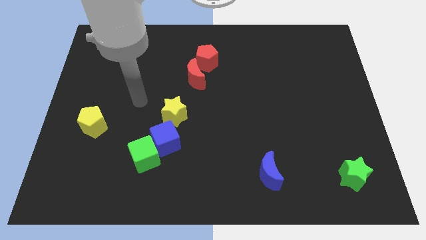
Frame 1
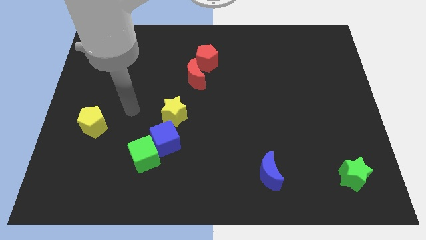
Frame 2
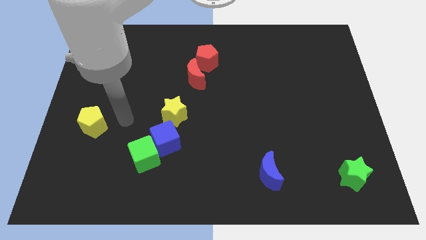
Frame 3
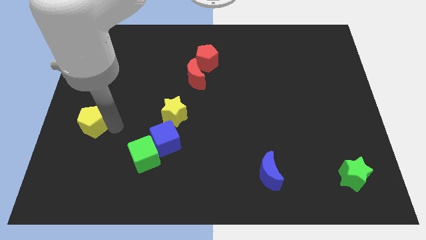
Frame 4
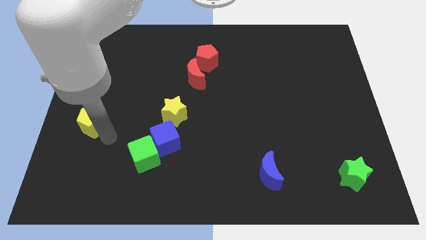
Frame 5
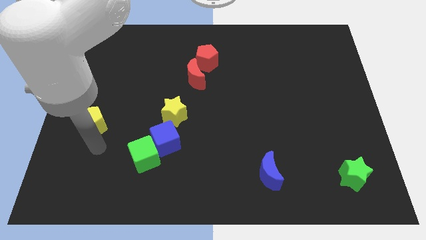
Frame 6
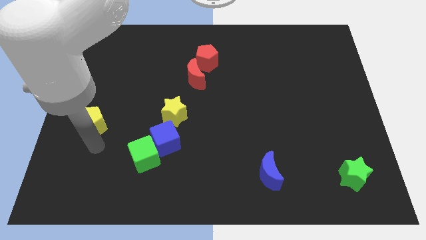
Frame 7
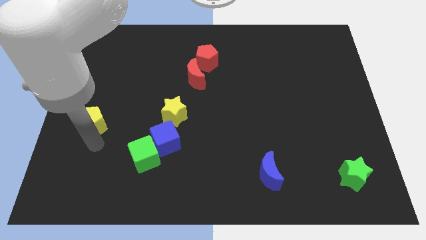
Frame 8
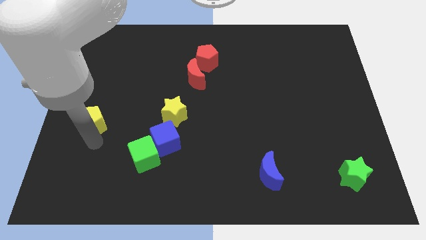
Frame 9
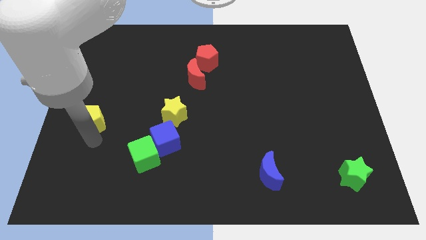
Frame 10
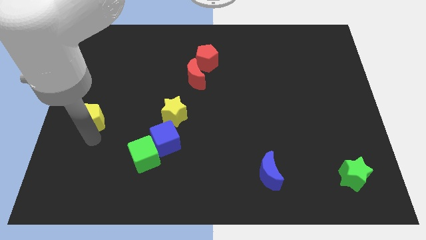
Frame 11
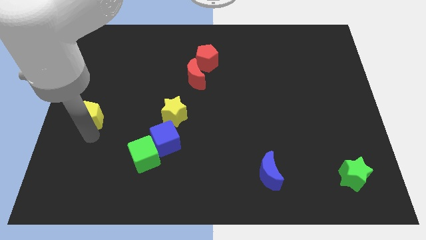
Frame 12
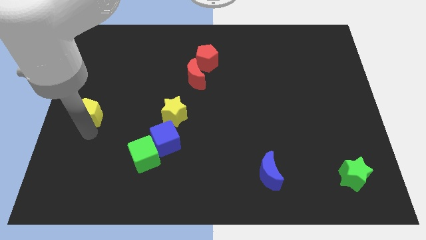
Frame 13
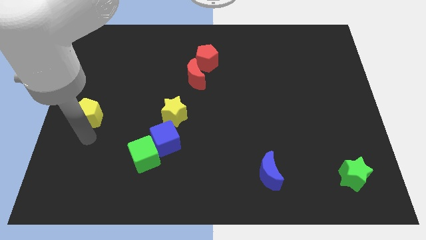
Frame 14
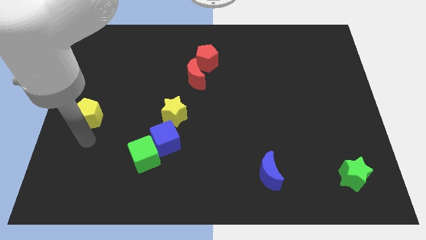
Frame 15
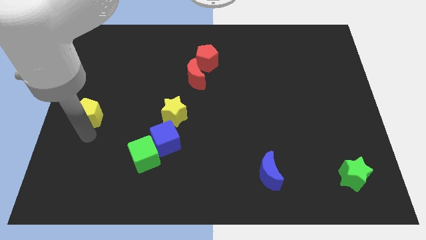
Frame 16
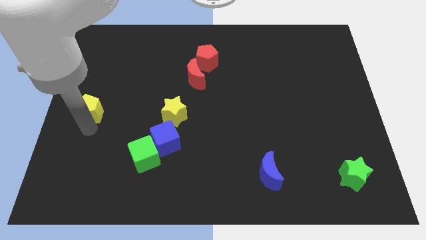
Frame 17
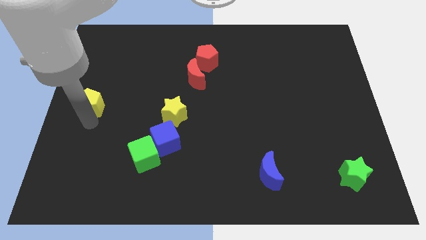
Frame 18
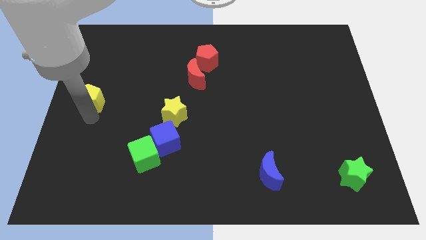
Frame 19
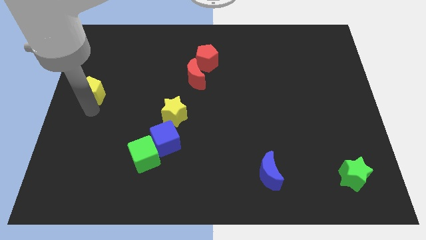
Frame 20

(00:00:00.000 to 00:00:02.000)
slide the yellow pentagon slightly up

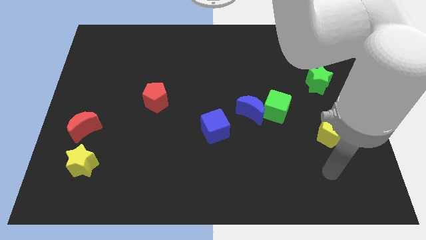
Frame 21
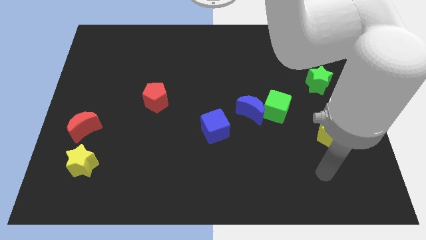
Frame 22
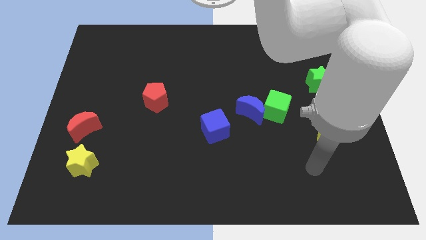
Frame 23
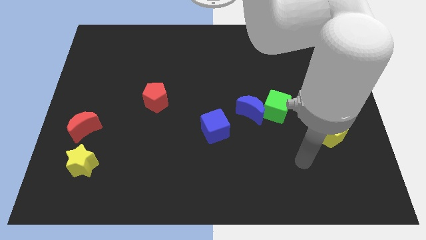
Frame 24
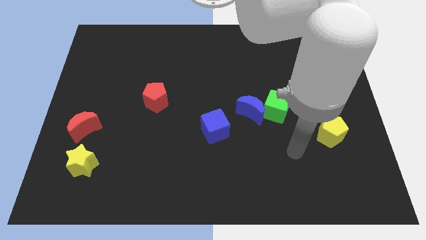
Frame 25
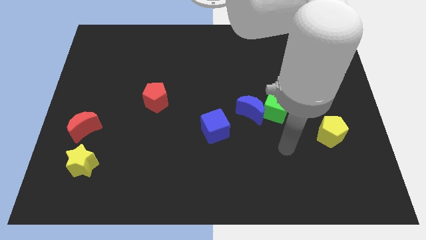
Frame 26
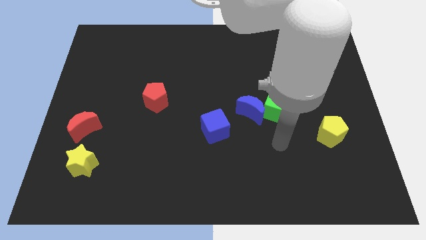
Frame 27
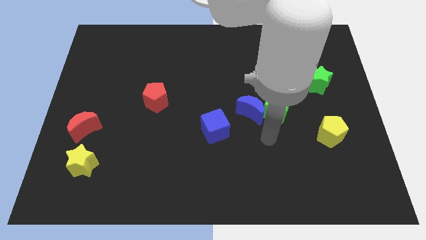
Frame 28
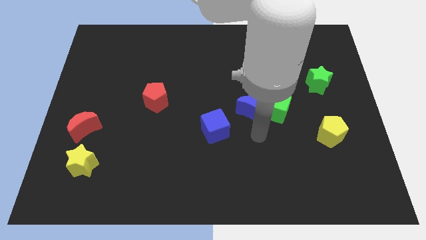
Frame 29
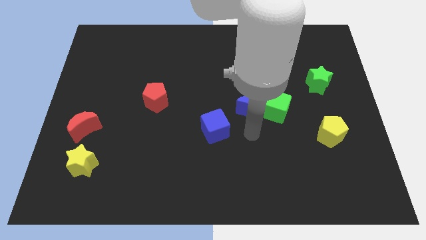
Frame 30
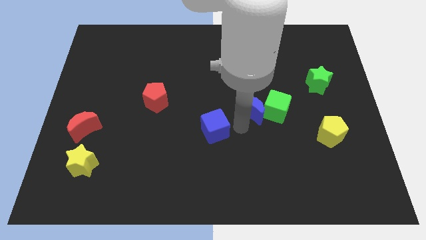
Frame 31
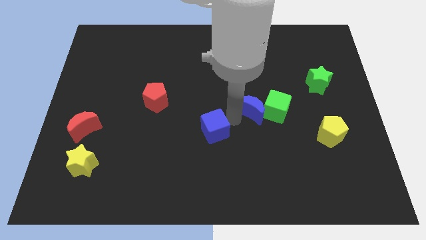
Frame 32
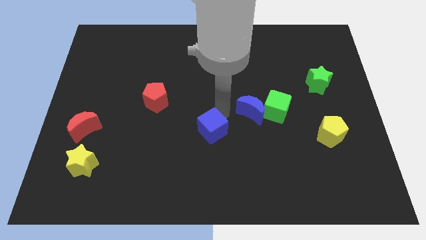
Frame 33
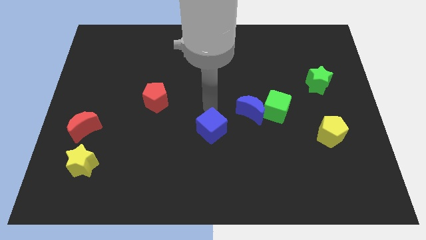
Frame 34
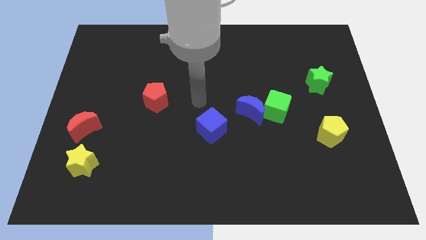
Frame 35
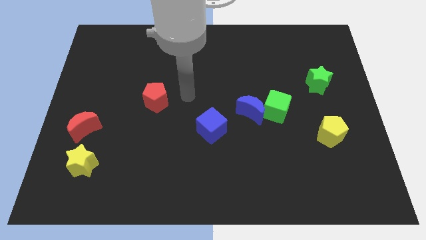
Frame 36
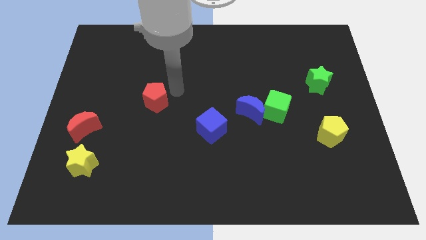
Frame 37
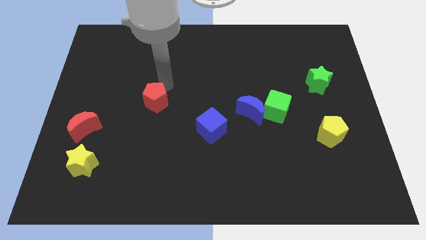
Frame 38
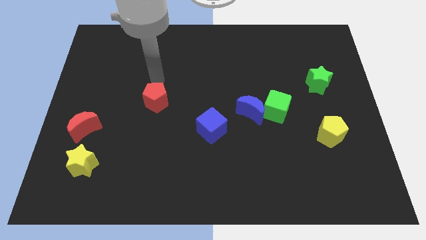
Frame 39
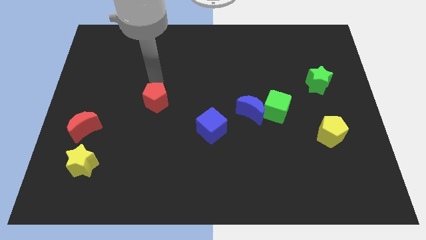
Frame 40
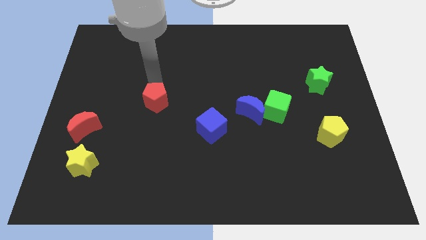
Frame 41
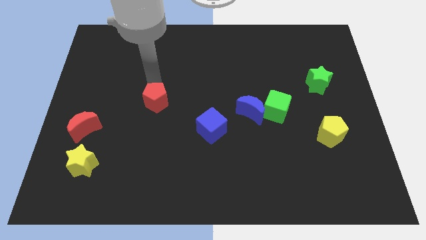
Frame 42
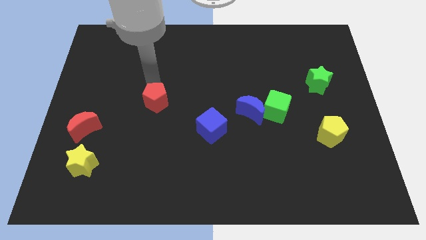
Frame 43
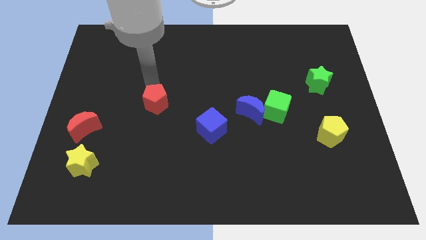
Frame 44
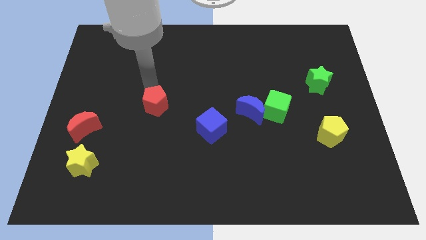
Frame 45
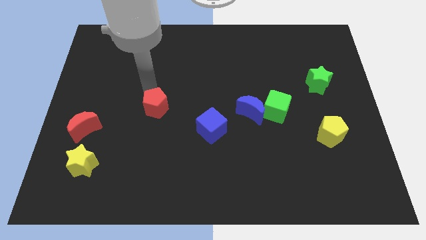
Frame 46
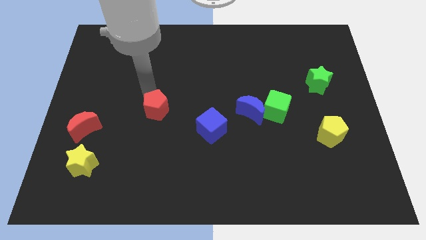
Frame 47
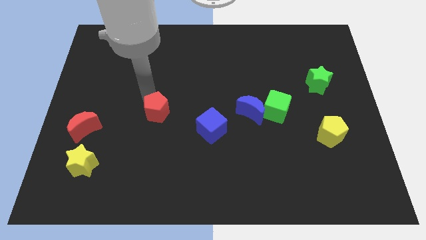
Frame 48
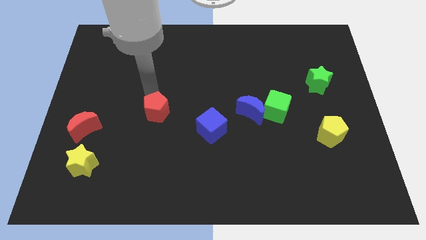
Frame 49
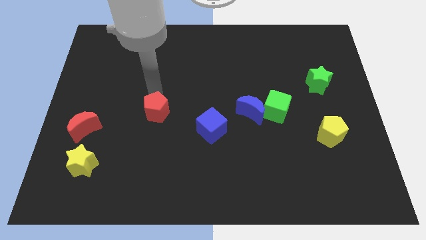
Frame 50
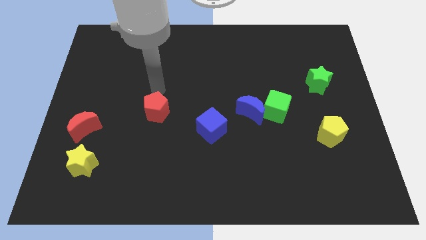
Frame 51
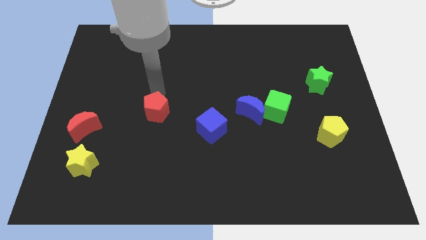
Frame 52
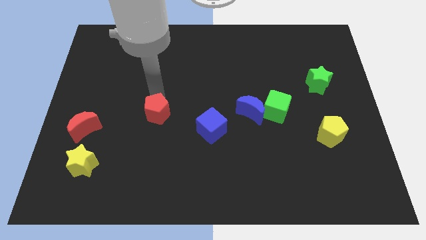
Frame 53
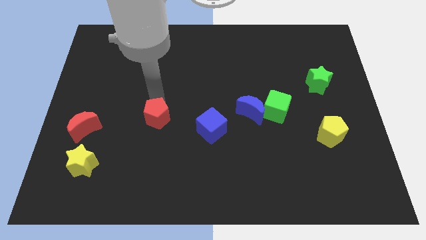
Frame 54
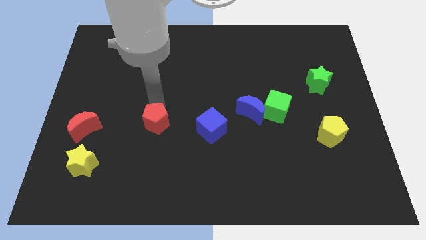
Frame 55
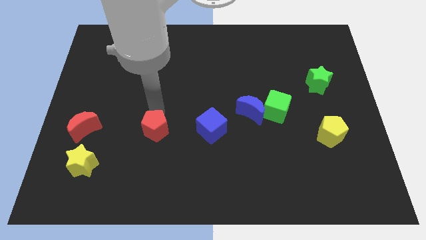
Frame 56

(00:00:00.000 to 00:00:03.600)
move the red pentagon downwards a bit

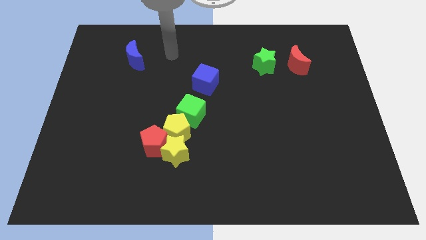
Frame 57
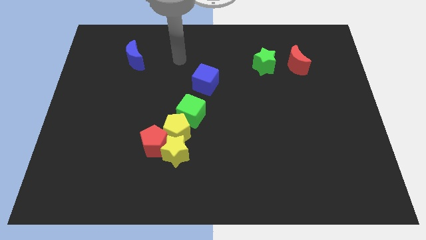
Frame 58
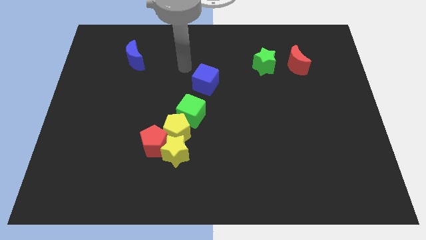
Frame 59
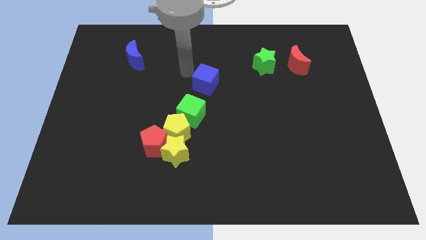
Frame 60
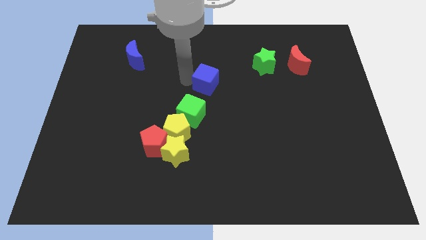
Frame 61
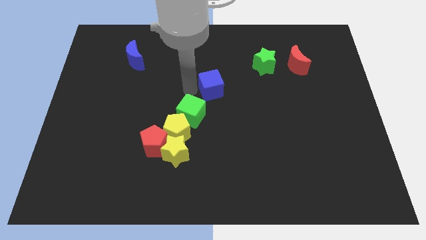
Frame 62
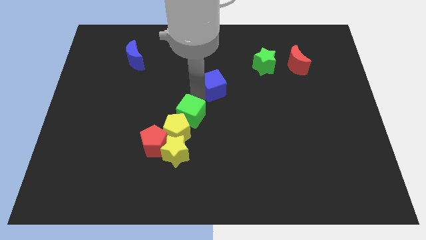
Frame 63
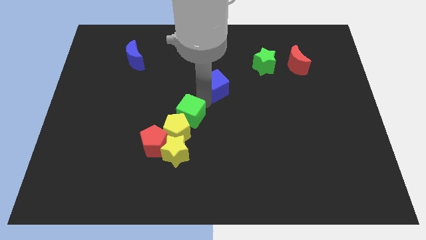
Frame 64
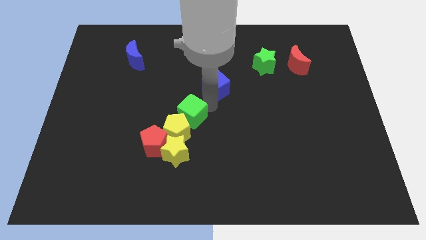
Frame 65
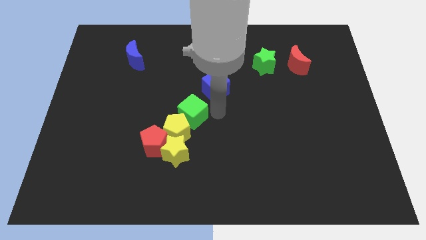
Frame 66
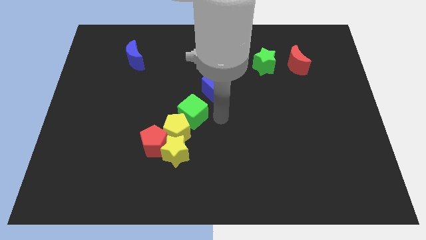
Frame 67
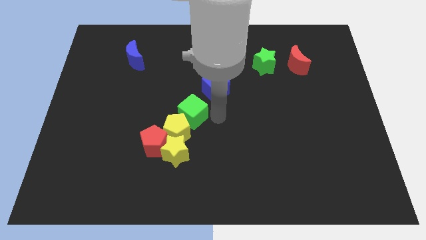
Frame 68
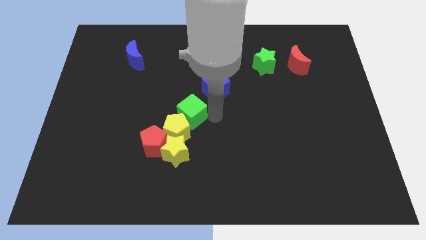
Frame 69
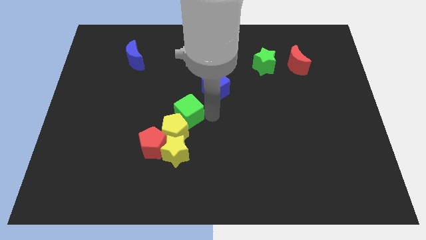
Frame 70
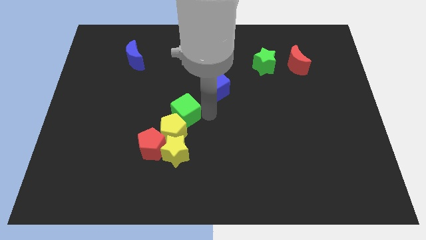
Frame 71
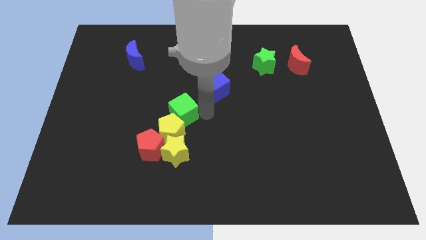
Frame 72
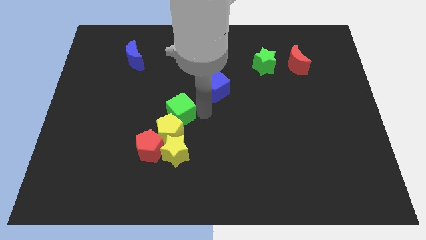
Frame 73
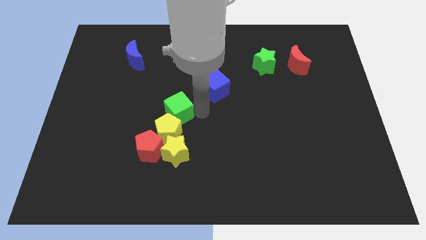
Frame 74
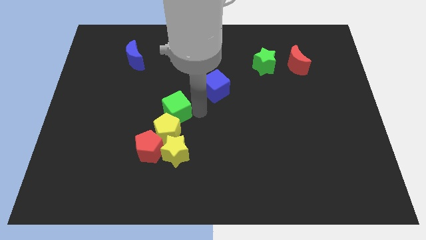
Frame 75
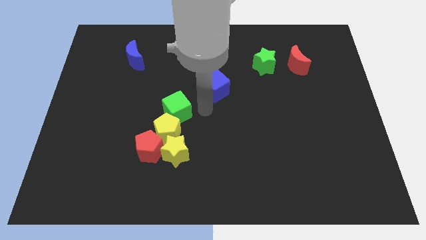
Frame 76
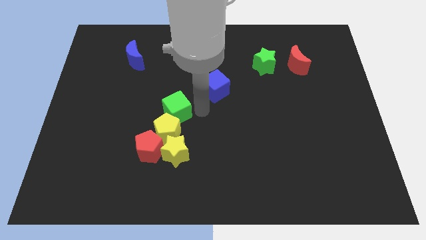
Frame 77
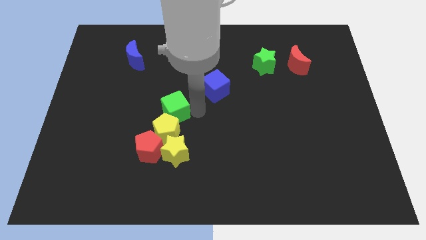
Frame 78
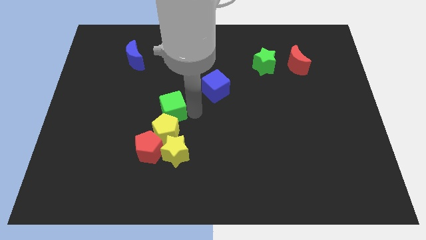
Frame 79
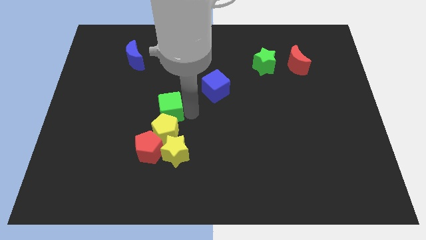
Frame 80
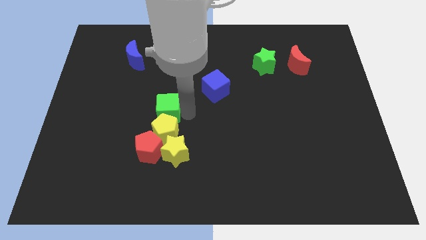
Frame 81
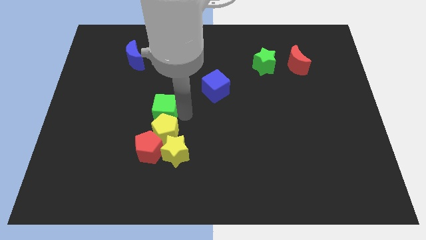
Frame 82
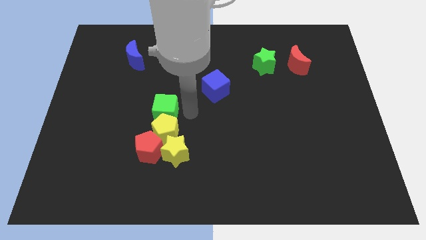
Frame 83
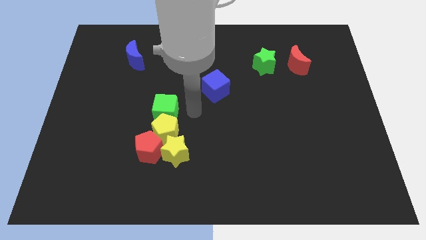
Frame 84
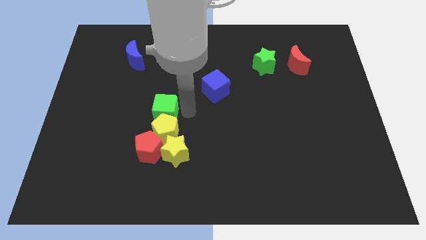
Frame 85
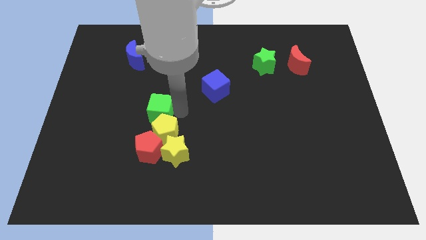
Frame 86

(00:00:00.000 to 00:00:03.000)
push the green cube to the left somewhat
